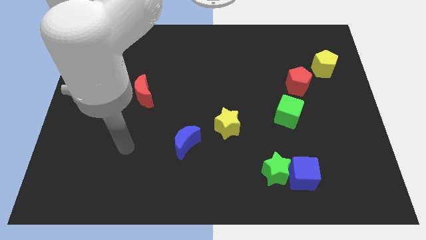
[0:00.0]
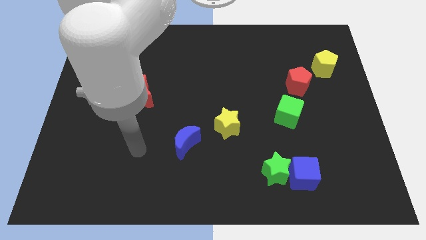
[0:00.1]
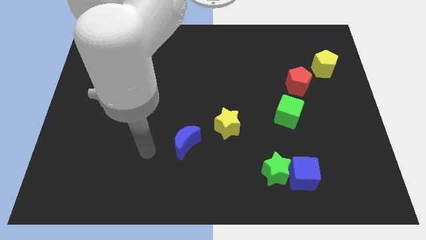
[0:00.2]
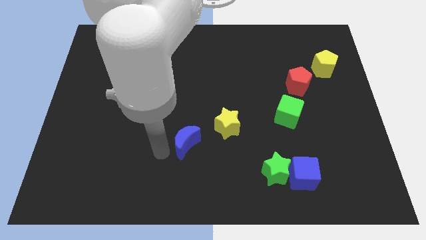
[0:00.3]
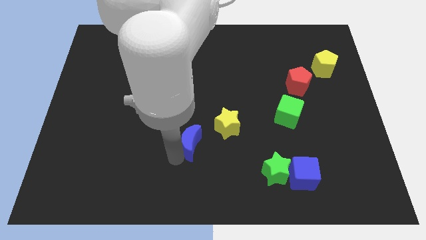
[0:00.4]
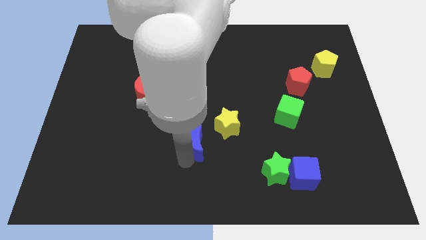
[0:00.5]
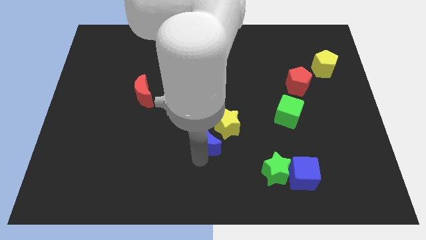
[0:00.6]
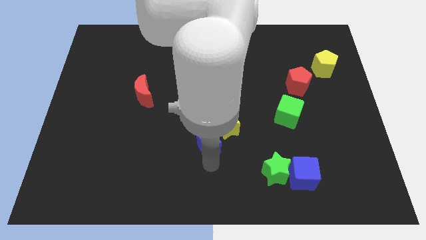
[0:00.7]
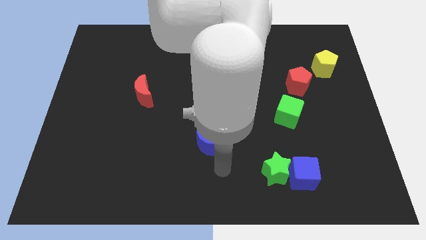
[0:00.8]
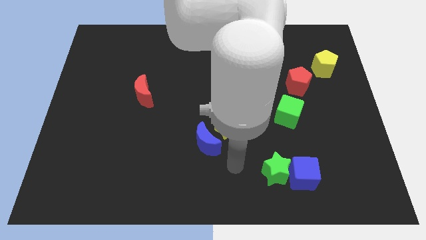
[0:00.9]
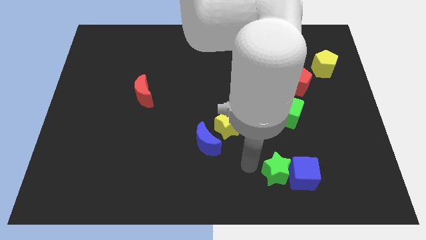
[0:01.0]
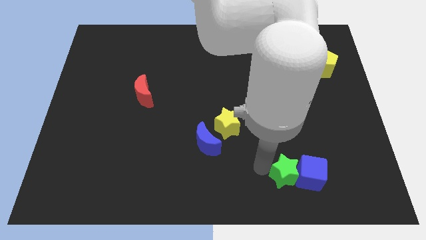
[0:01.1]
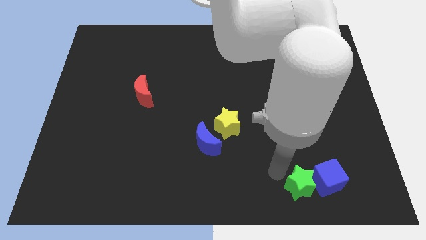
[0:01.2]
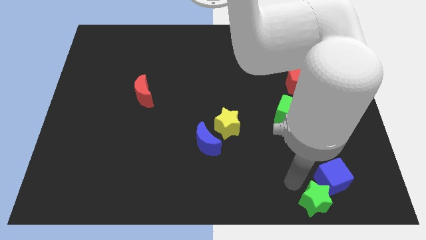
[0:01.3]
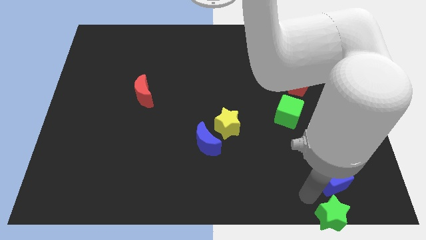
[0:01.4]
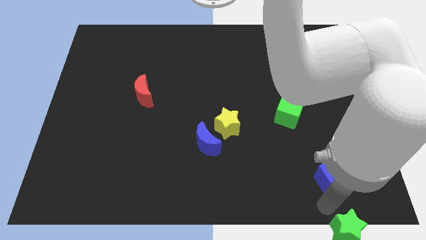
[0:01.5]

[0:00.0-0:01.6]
separate the blue cube from the green star

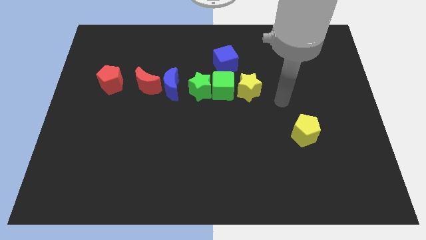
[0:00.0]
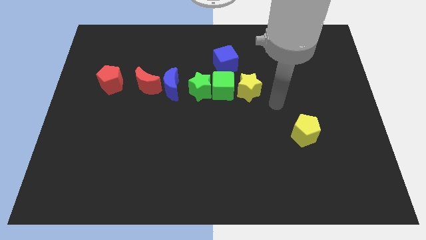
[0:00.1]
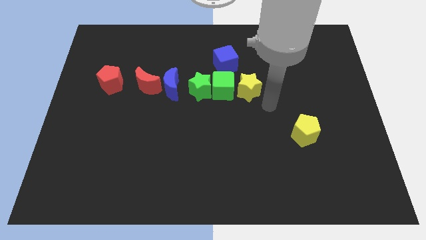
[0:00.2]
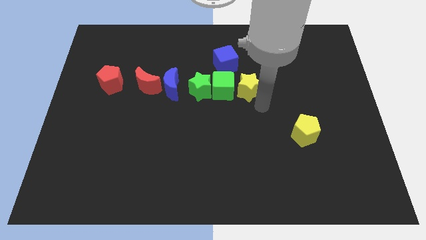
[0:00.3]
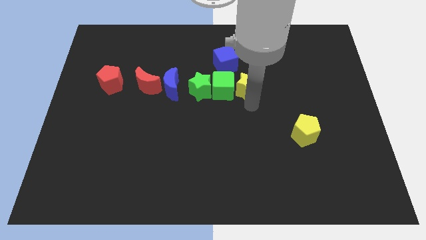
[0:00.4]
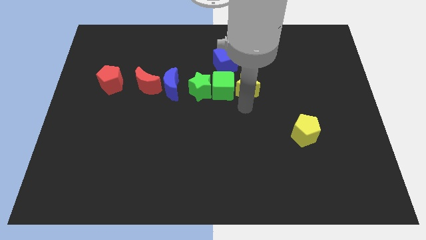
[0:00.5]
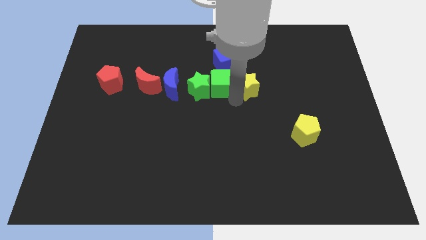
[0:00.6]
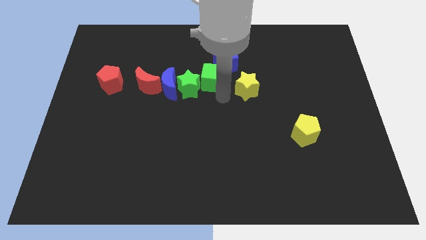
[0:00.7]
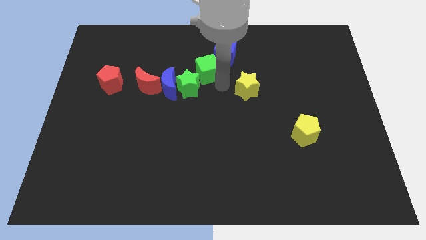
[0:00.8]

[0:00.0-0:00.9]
separate the yellow star from the green cube

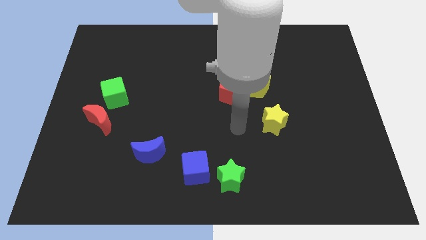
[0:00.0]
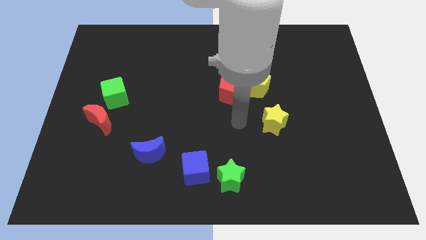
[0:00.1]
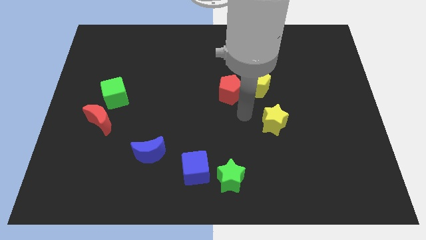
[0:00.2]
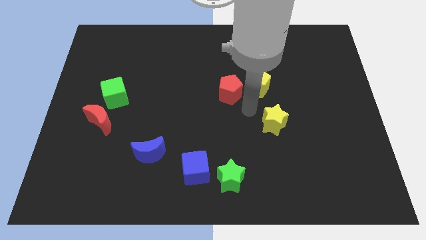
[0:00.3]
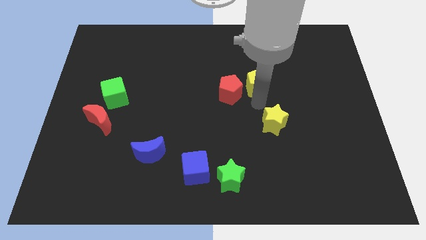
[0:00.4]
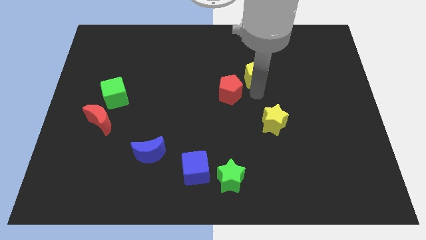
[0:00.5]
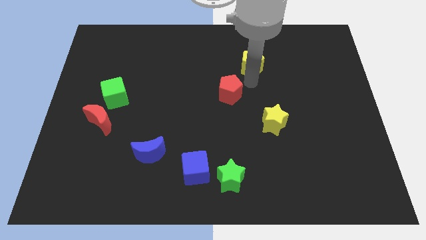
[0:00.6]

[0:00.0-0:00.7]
move the red pentagon away from the yellow pentagon

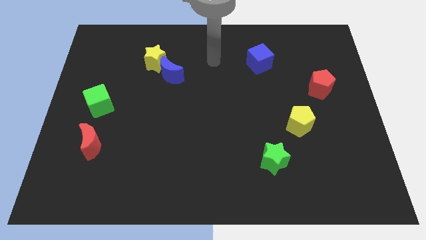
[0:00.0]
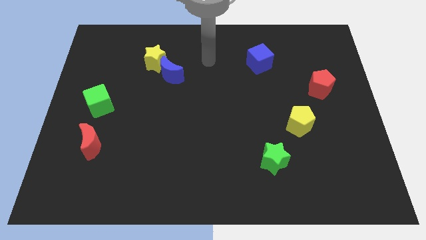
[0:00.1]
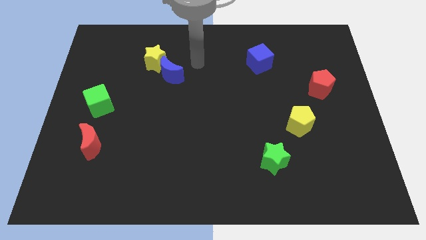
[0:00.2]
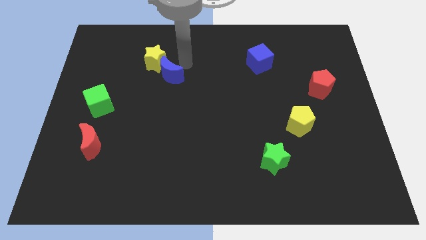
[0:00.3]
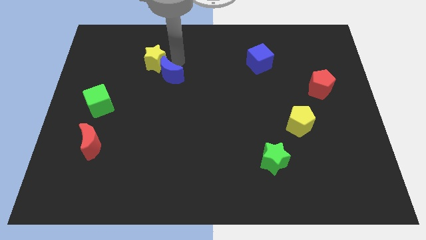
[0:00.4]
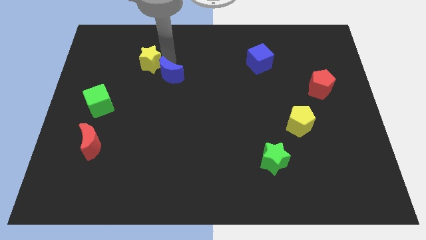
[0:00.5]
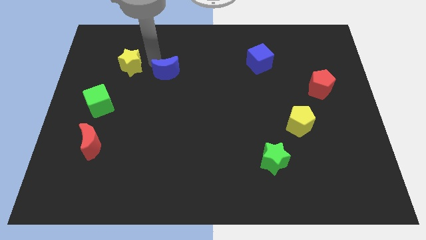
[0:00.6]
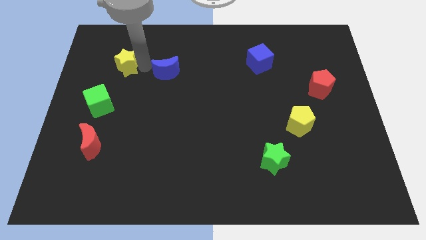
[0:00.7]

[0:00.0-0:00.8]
move the blue moon away from the yellow star

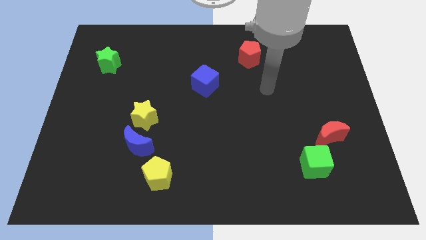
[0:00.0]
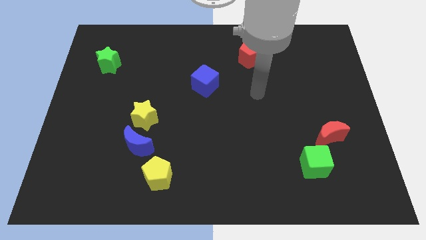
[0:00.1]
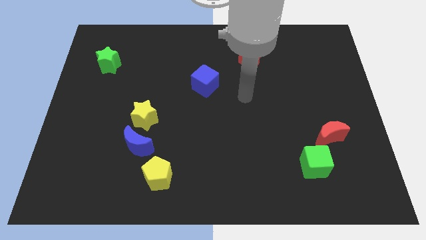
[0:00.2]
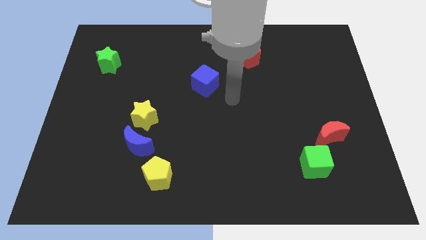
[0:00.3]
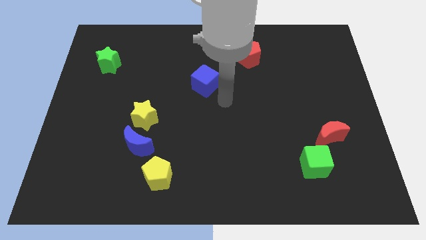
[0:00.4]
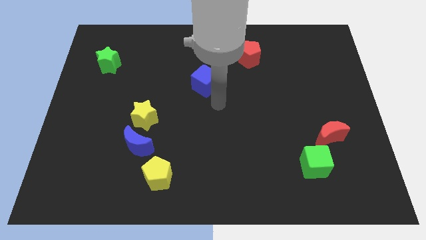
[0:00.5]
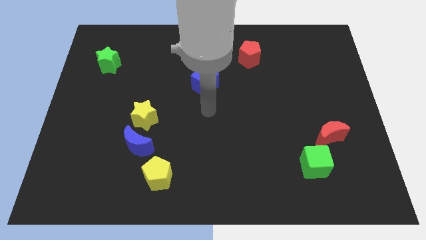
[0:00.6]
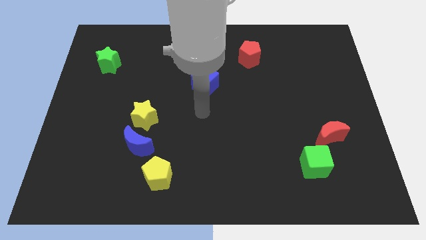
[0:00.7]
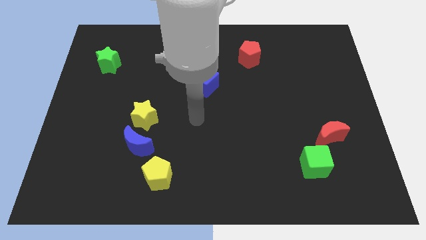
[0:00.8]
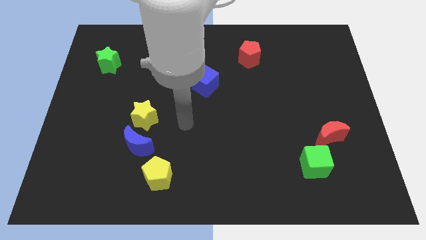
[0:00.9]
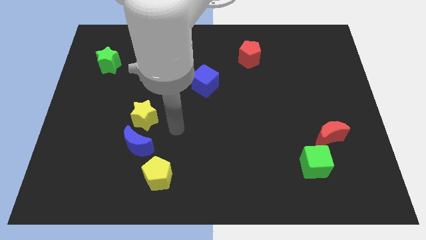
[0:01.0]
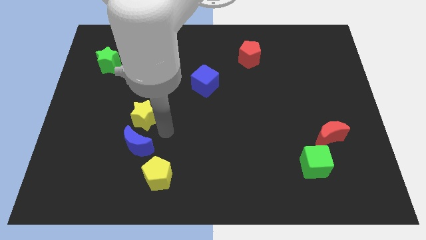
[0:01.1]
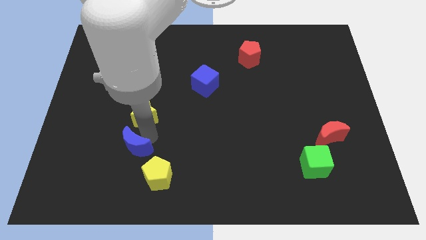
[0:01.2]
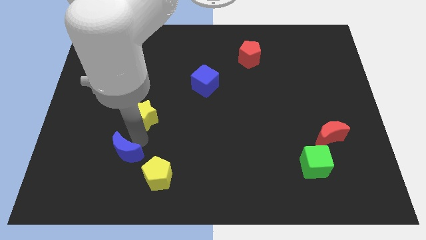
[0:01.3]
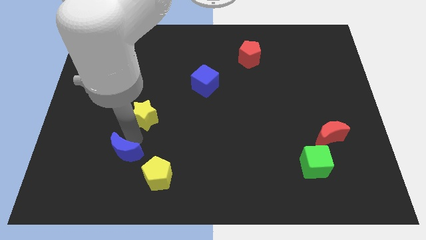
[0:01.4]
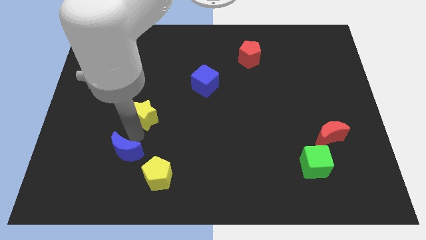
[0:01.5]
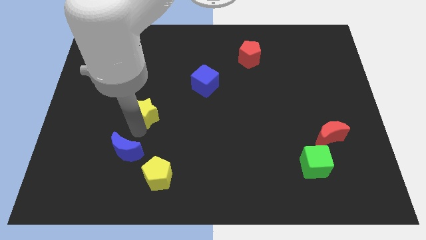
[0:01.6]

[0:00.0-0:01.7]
pull the yellow star apart from the blue moon

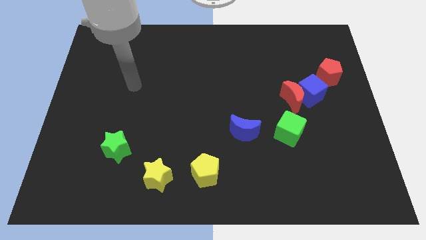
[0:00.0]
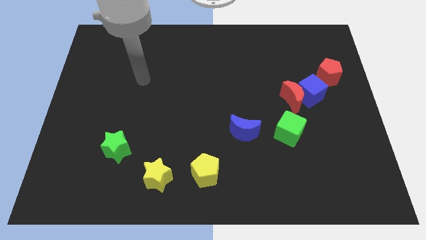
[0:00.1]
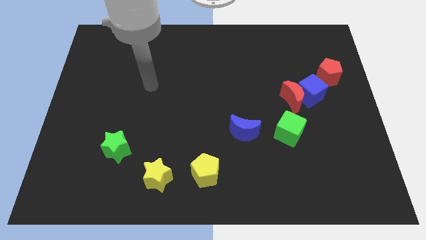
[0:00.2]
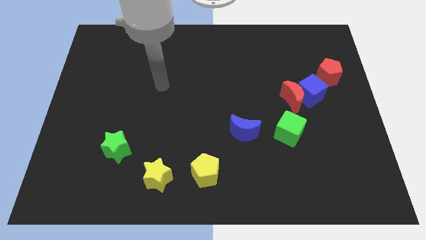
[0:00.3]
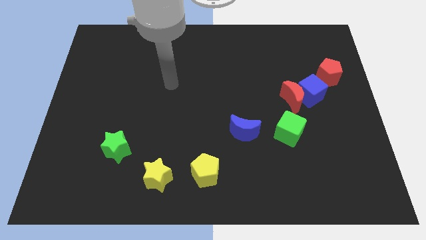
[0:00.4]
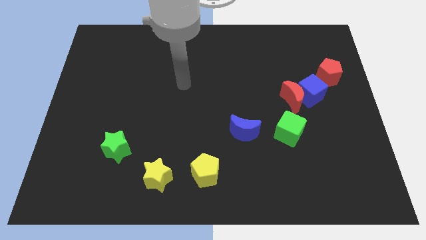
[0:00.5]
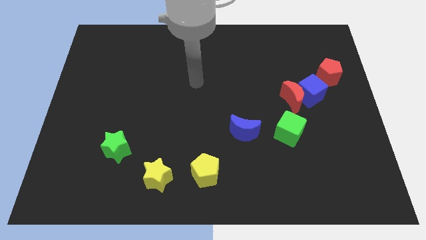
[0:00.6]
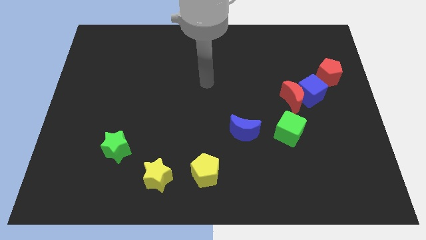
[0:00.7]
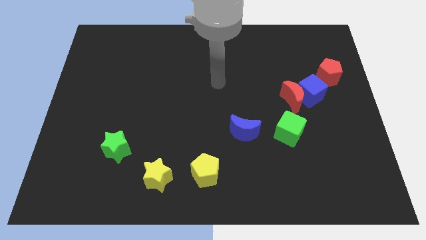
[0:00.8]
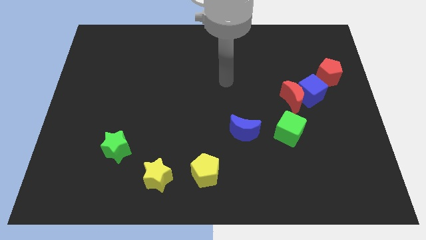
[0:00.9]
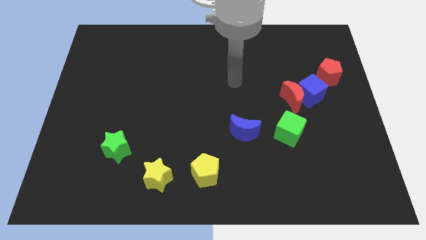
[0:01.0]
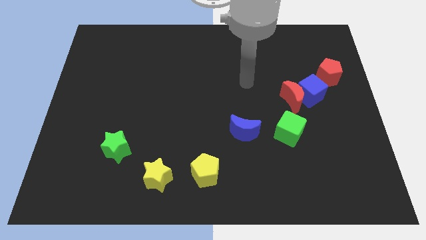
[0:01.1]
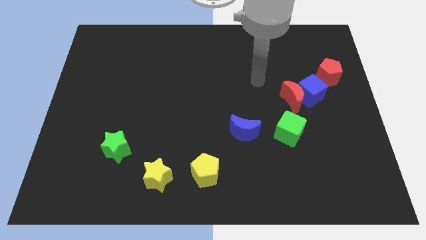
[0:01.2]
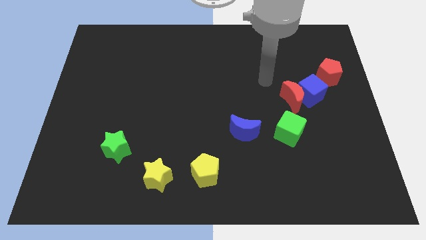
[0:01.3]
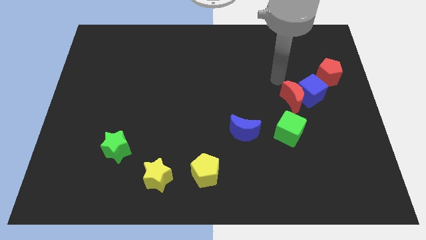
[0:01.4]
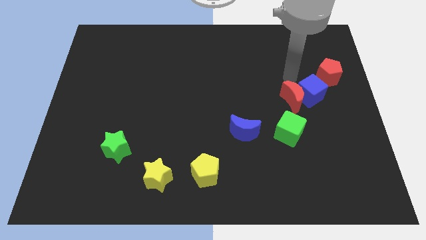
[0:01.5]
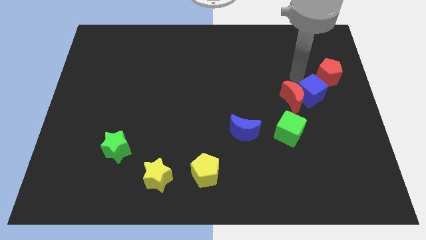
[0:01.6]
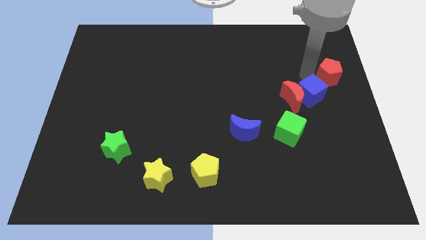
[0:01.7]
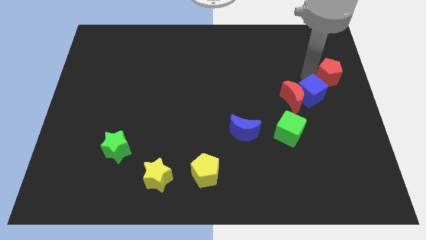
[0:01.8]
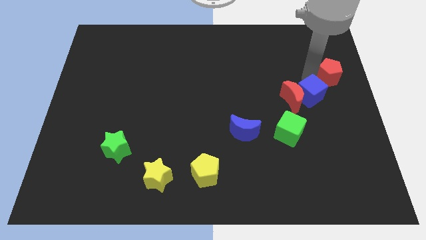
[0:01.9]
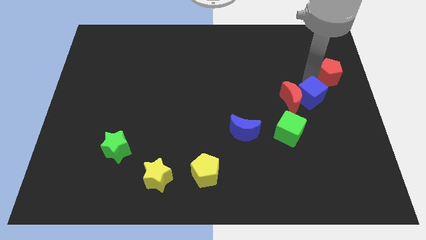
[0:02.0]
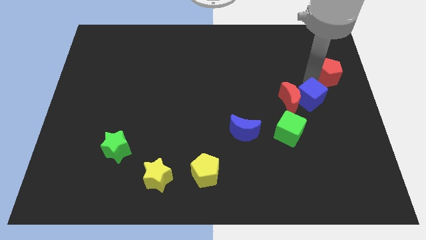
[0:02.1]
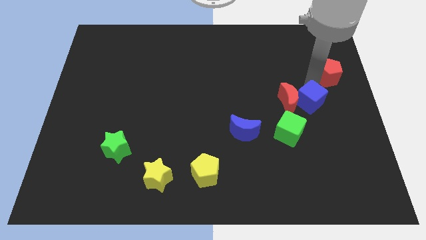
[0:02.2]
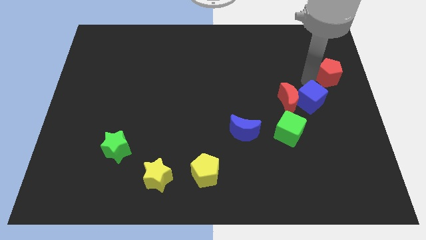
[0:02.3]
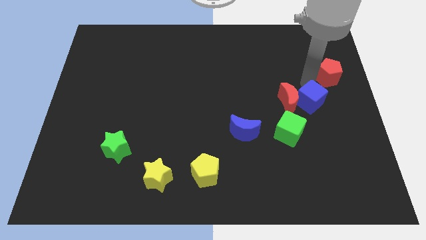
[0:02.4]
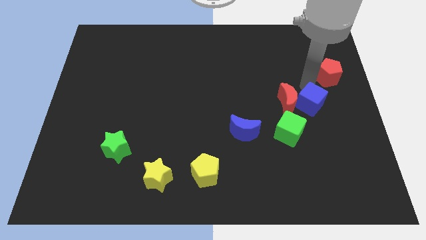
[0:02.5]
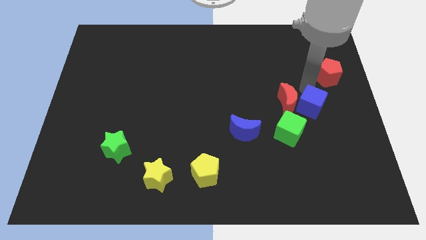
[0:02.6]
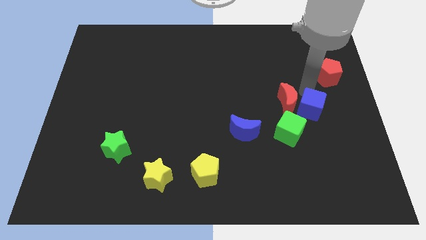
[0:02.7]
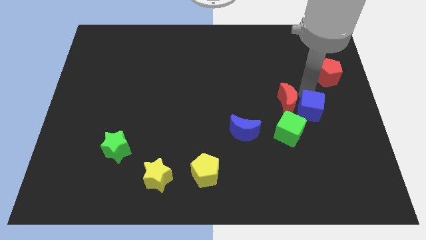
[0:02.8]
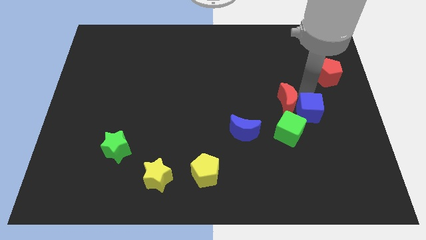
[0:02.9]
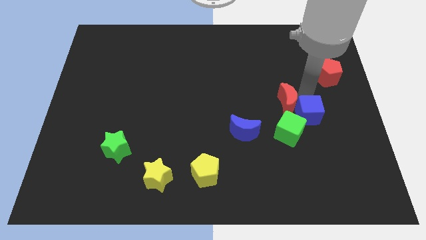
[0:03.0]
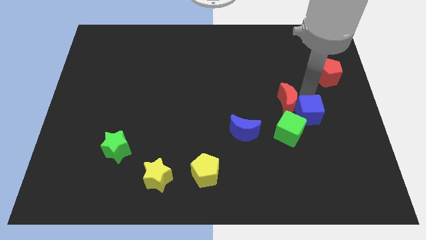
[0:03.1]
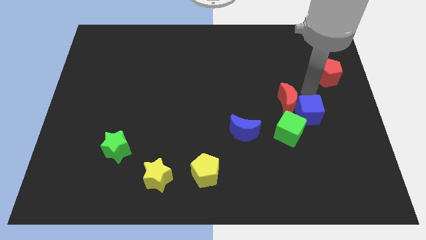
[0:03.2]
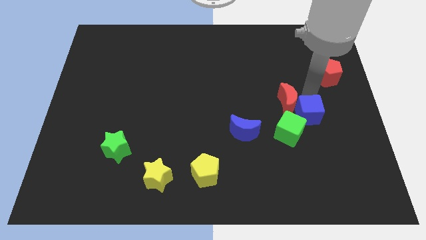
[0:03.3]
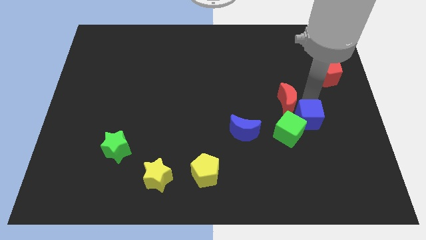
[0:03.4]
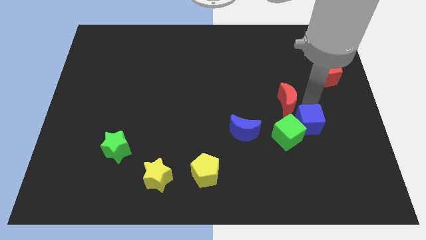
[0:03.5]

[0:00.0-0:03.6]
pull the blue cube apart from the red moon and red pentagon

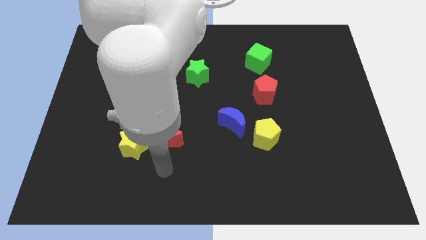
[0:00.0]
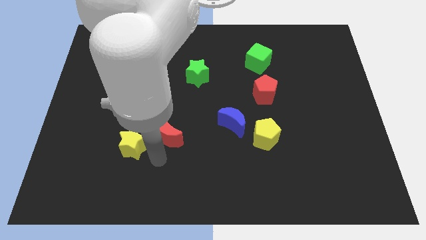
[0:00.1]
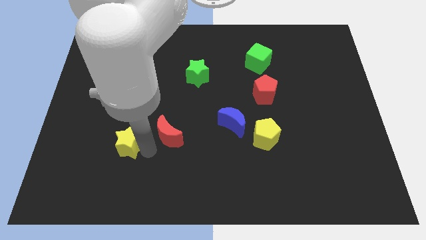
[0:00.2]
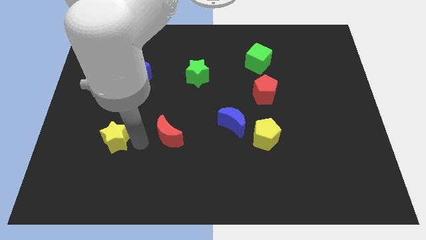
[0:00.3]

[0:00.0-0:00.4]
separate the red moon from the yellow star
